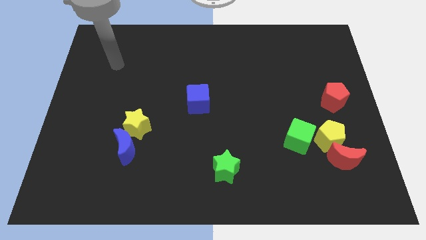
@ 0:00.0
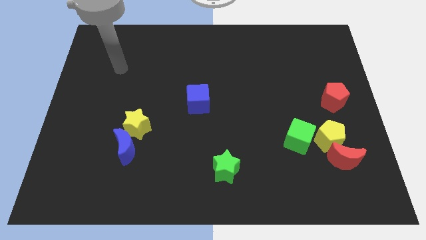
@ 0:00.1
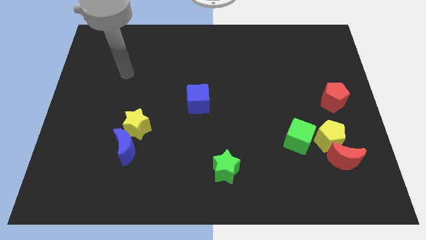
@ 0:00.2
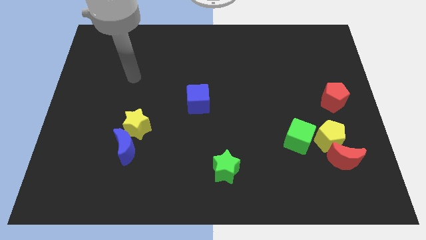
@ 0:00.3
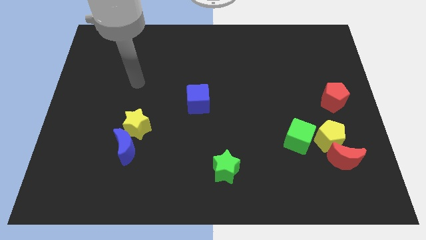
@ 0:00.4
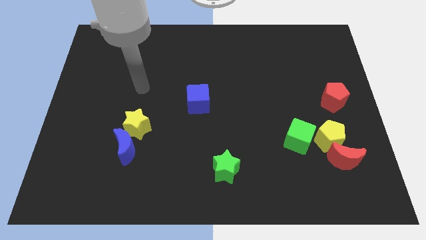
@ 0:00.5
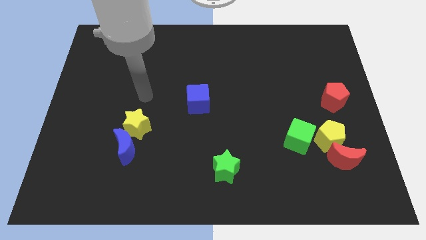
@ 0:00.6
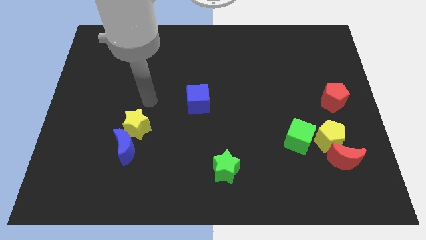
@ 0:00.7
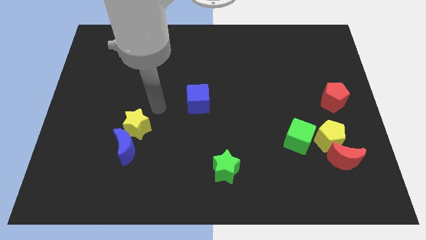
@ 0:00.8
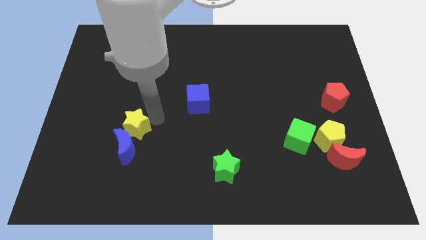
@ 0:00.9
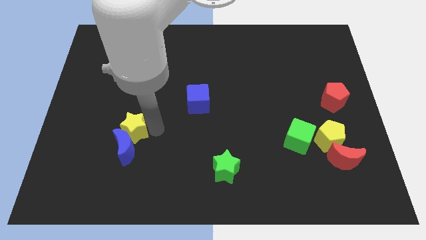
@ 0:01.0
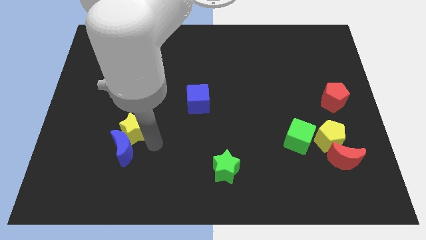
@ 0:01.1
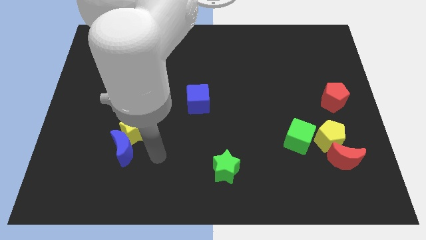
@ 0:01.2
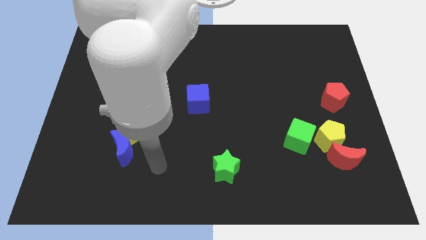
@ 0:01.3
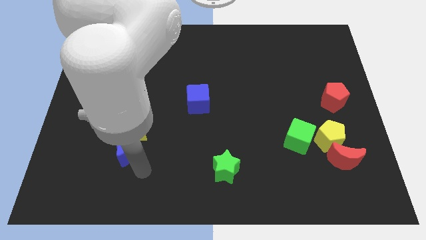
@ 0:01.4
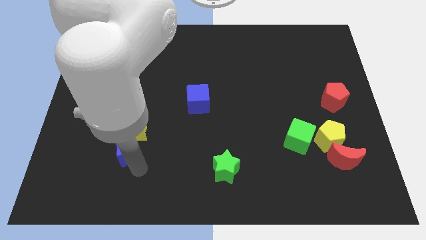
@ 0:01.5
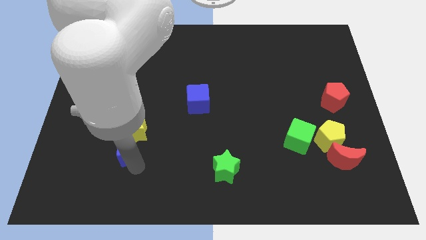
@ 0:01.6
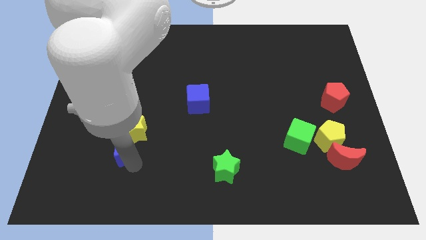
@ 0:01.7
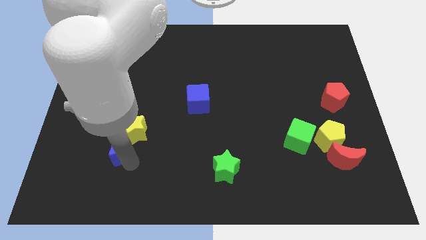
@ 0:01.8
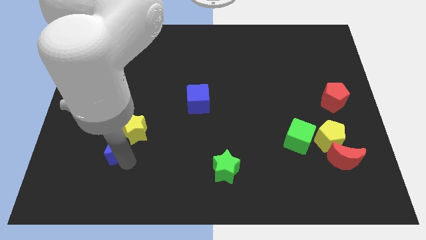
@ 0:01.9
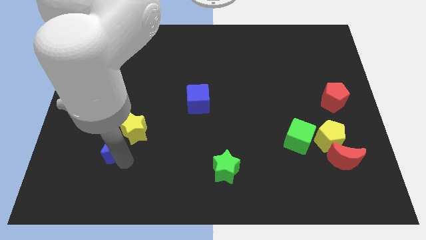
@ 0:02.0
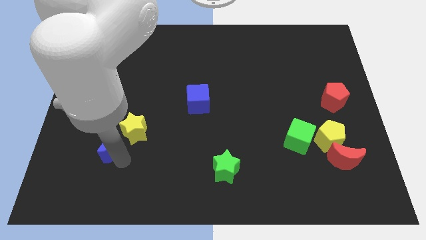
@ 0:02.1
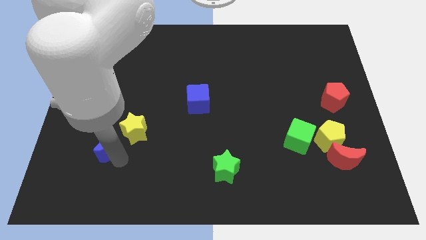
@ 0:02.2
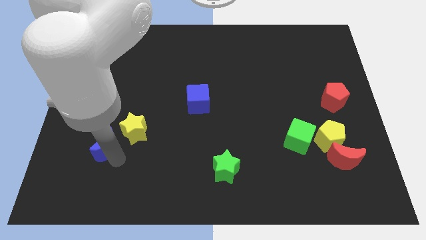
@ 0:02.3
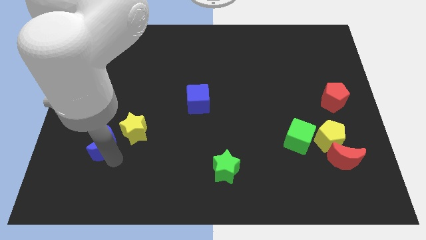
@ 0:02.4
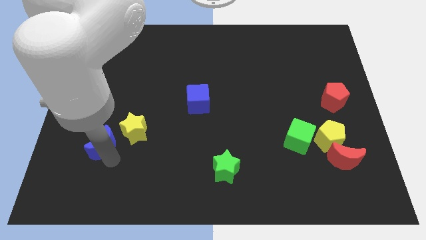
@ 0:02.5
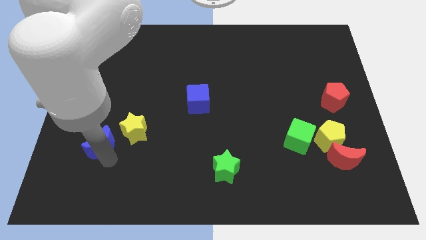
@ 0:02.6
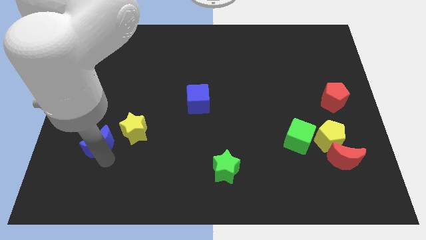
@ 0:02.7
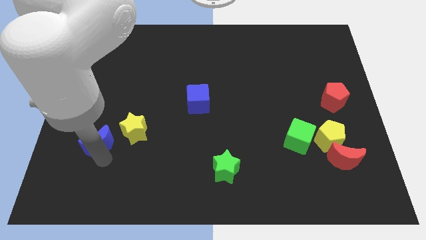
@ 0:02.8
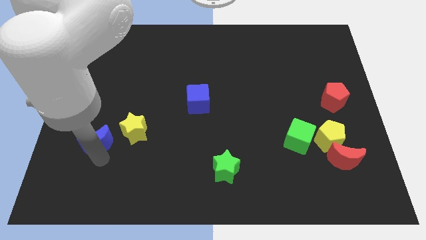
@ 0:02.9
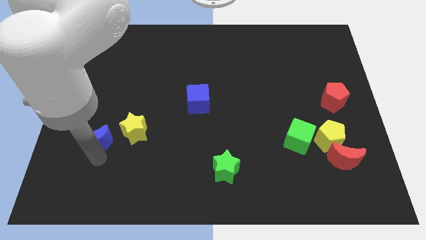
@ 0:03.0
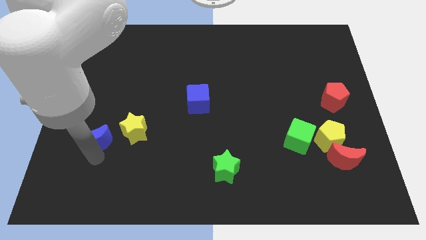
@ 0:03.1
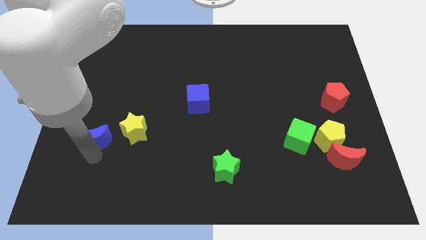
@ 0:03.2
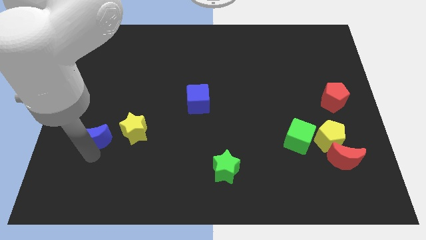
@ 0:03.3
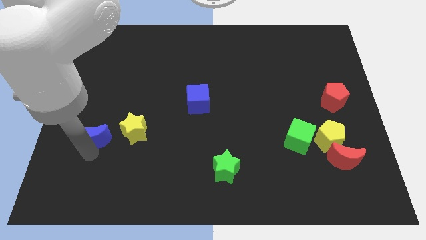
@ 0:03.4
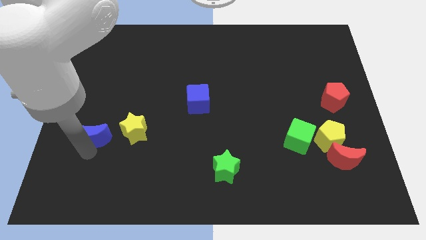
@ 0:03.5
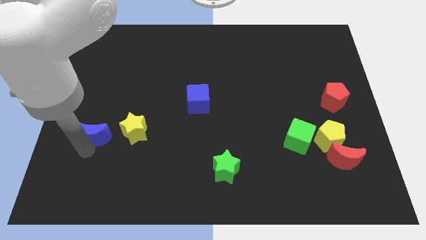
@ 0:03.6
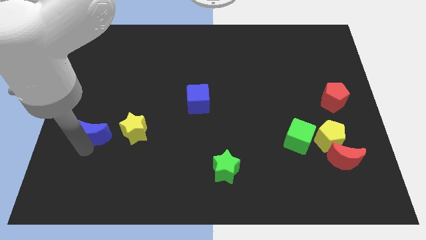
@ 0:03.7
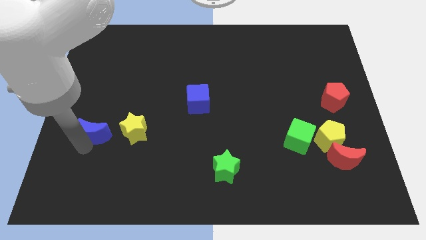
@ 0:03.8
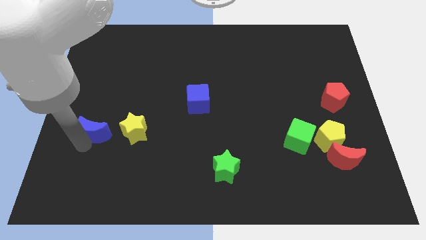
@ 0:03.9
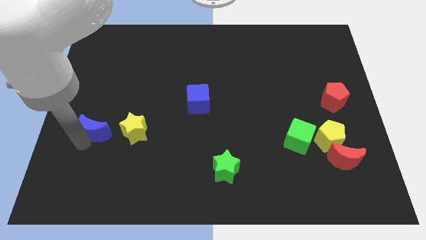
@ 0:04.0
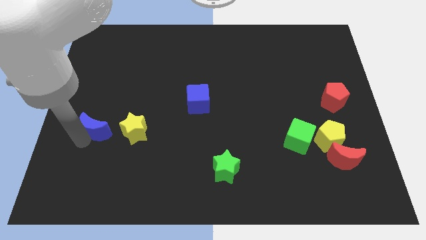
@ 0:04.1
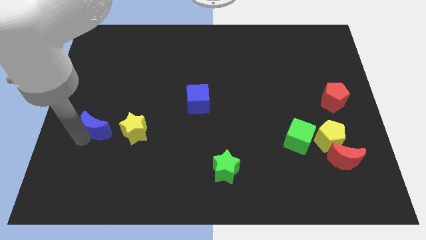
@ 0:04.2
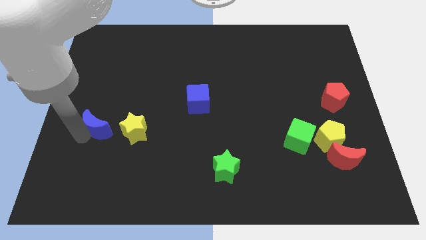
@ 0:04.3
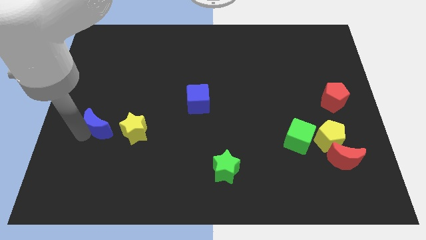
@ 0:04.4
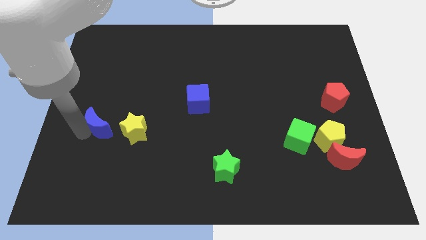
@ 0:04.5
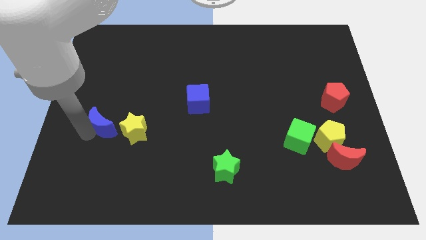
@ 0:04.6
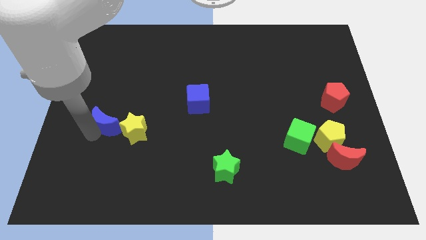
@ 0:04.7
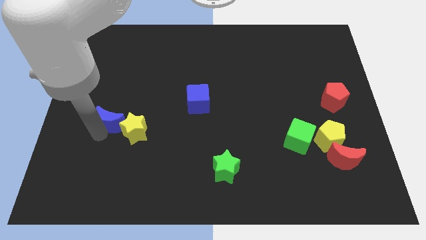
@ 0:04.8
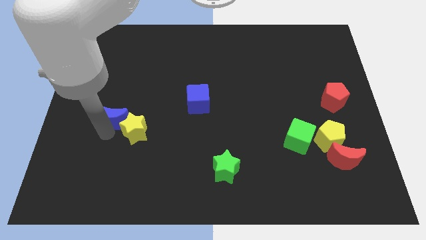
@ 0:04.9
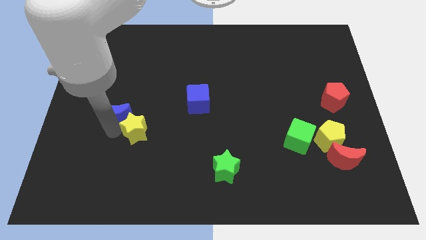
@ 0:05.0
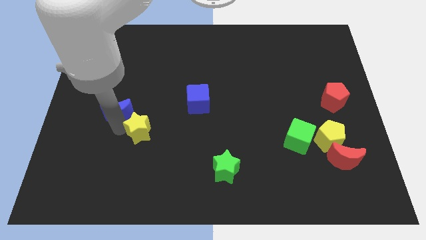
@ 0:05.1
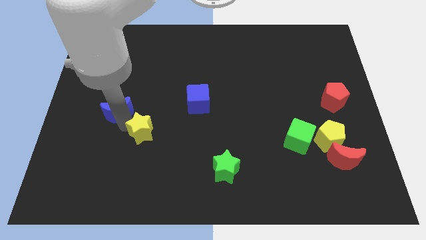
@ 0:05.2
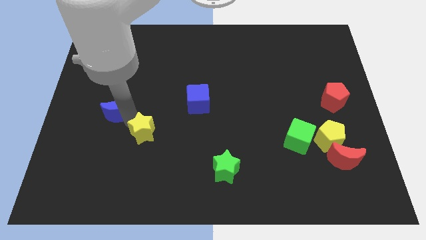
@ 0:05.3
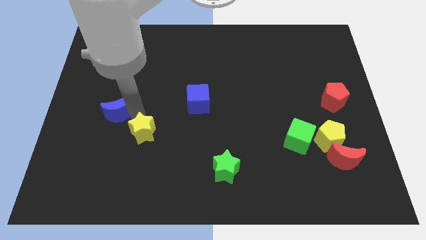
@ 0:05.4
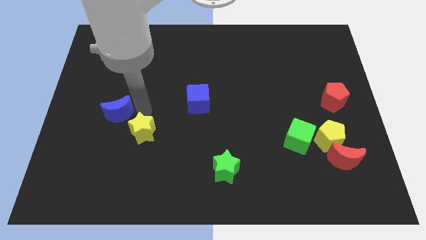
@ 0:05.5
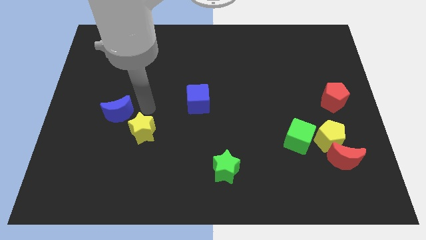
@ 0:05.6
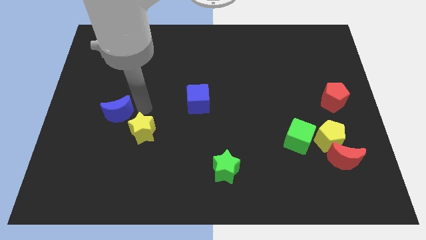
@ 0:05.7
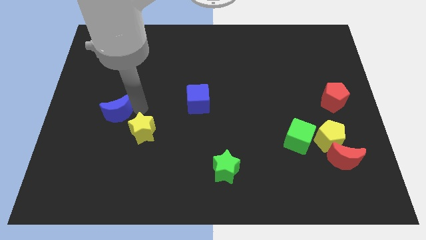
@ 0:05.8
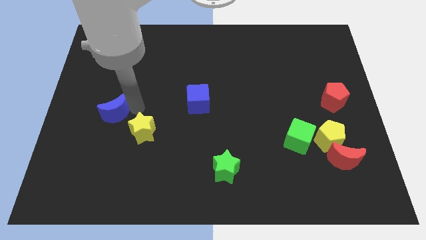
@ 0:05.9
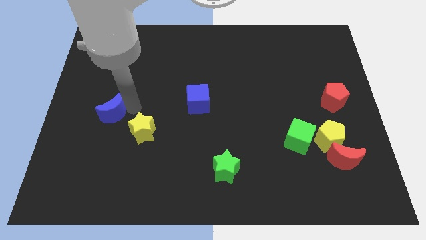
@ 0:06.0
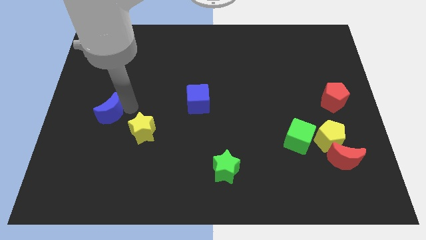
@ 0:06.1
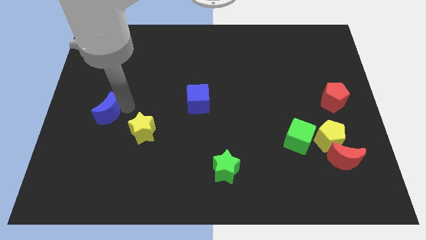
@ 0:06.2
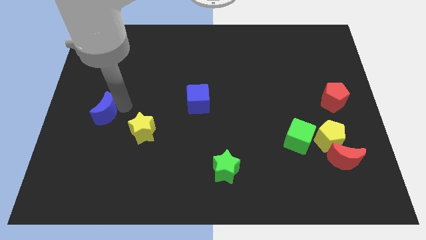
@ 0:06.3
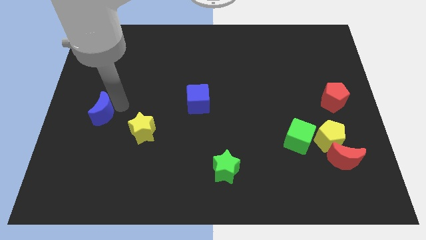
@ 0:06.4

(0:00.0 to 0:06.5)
move the blue moon to the left side

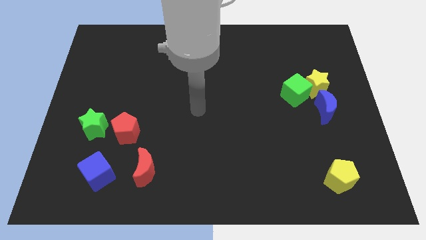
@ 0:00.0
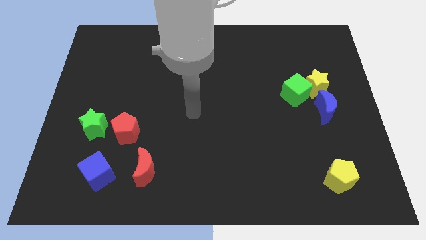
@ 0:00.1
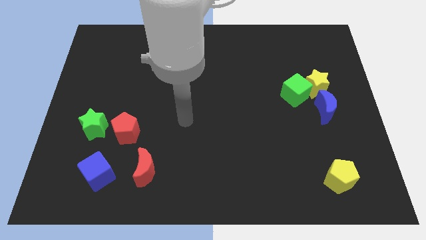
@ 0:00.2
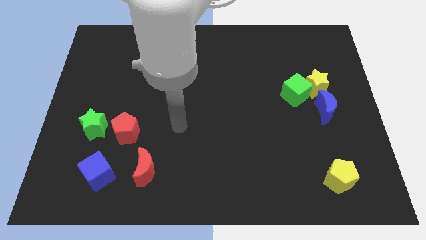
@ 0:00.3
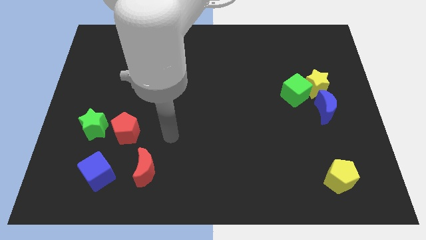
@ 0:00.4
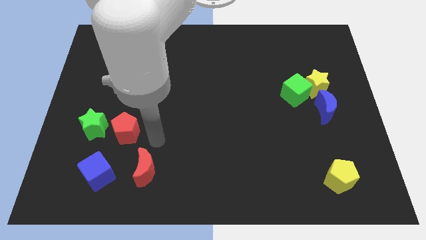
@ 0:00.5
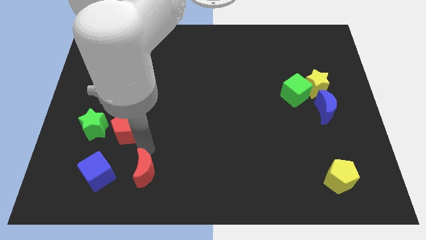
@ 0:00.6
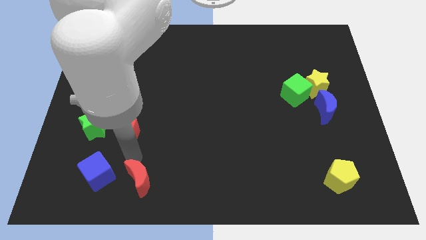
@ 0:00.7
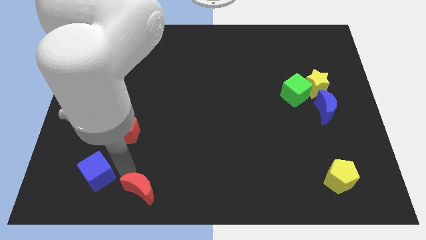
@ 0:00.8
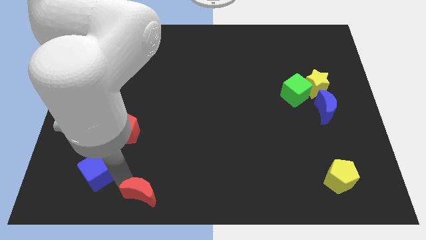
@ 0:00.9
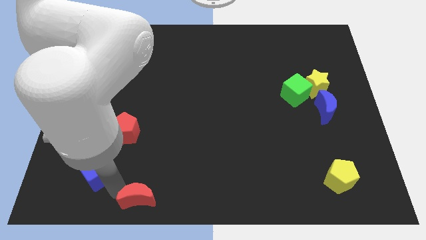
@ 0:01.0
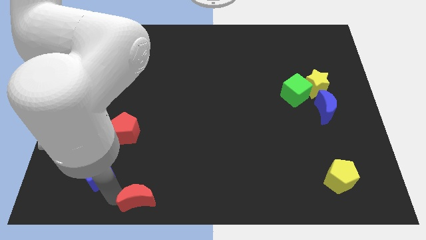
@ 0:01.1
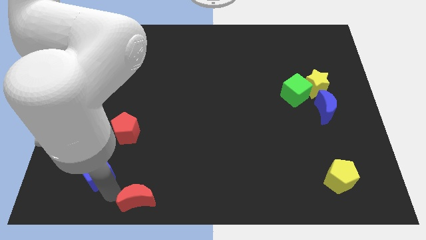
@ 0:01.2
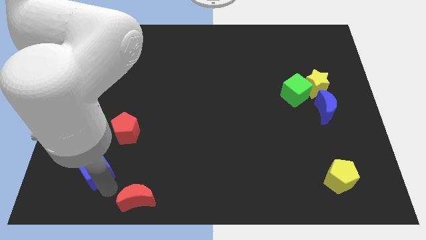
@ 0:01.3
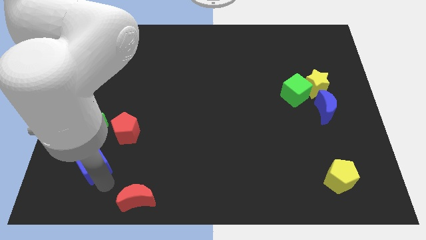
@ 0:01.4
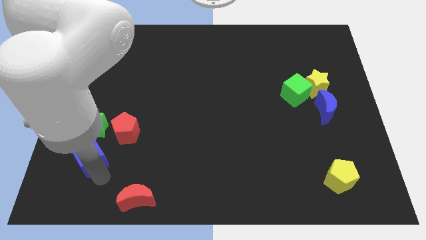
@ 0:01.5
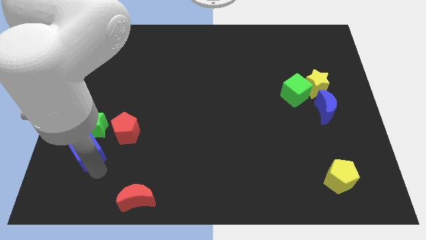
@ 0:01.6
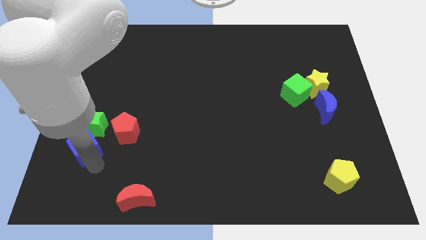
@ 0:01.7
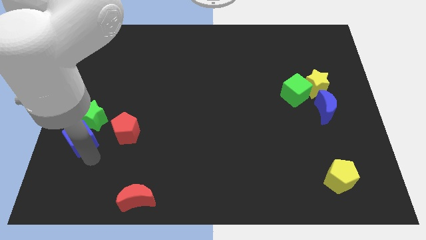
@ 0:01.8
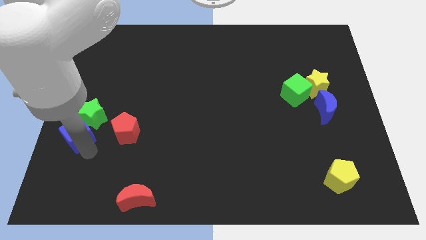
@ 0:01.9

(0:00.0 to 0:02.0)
move the blue cube to the center left
